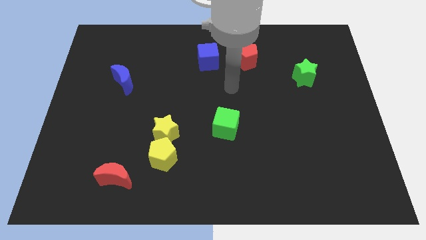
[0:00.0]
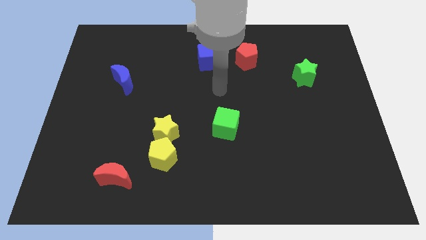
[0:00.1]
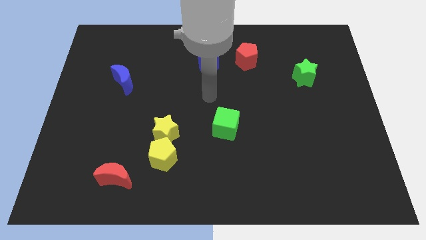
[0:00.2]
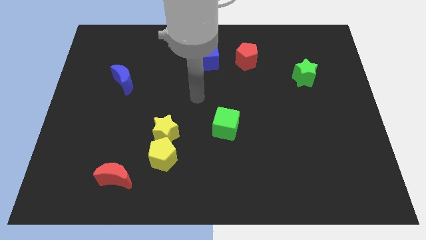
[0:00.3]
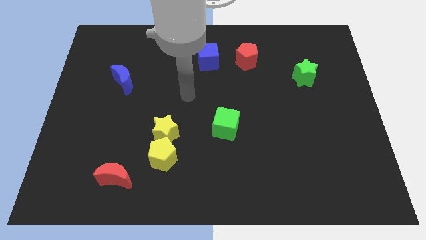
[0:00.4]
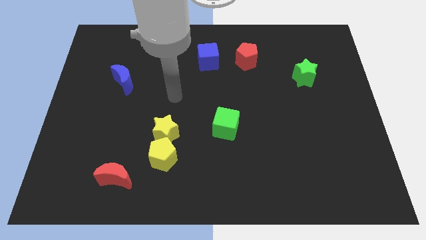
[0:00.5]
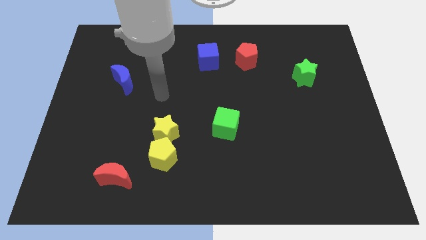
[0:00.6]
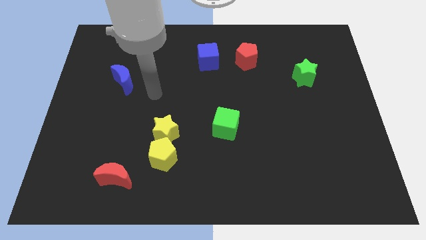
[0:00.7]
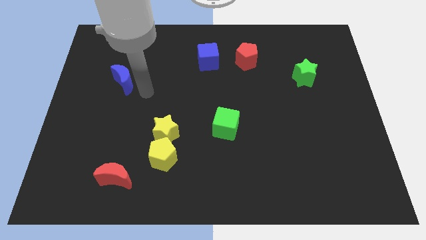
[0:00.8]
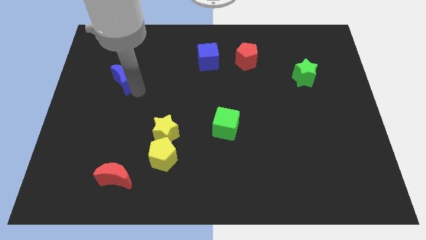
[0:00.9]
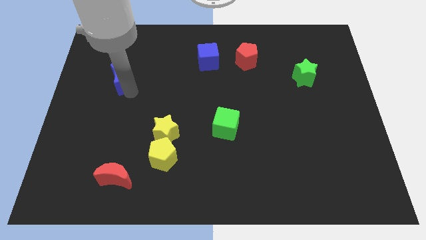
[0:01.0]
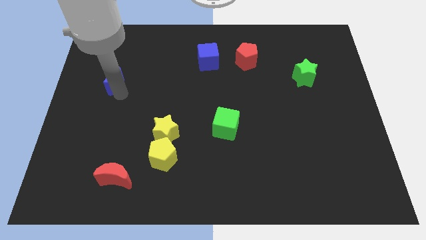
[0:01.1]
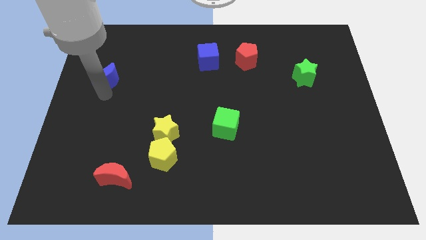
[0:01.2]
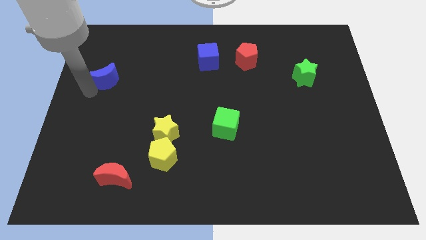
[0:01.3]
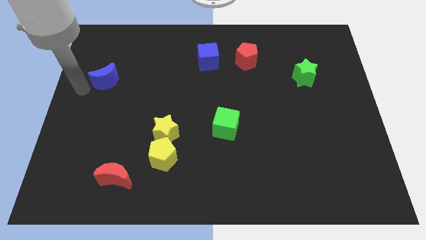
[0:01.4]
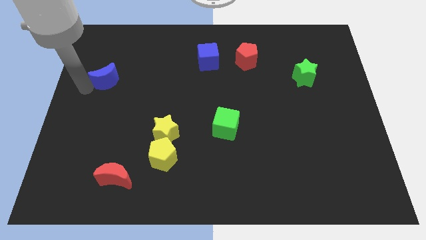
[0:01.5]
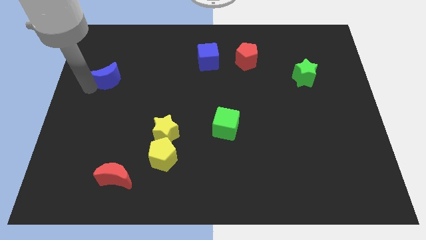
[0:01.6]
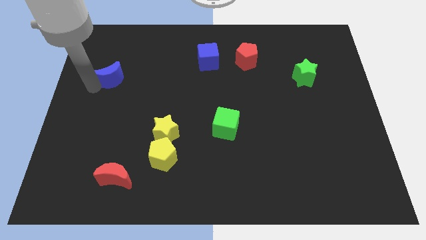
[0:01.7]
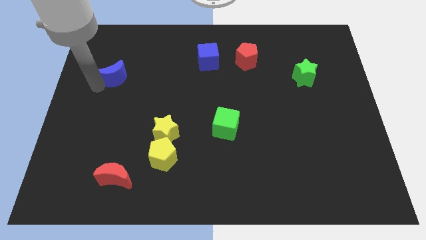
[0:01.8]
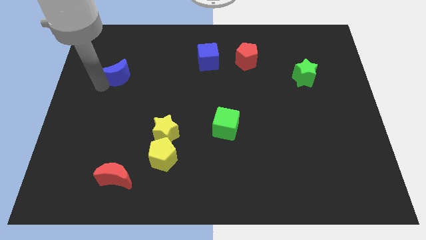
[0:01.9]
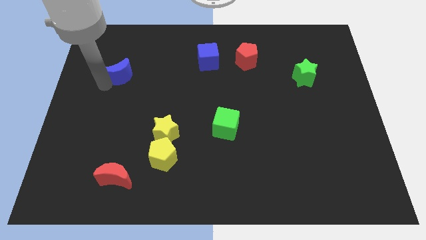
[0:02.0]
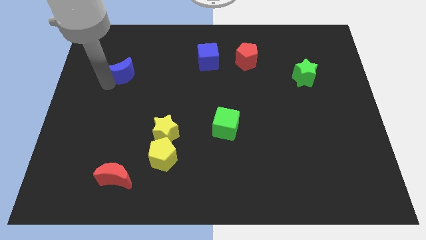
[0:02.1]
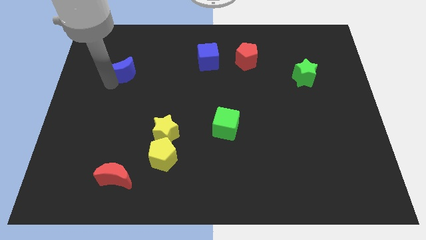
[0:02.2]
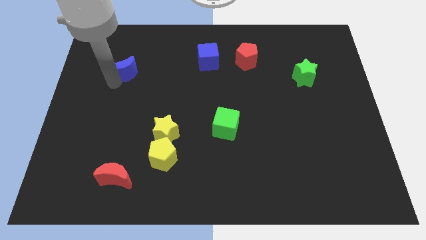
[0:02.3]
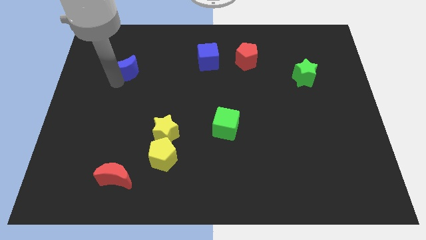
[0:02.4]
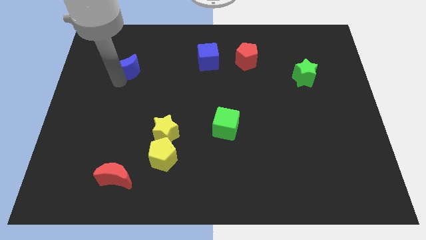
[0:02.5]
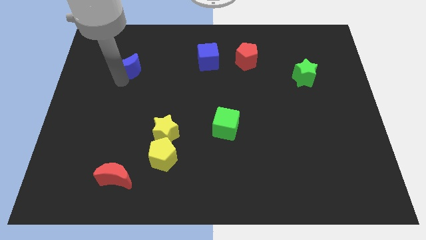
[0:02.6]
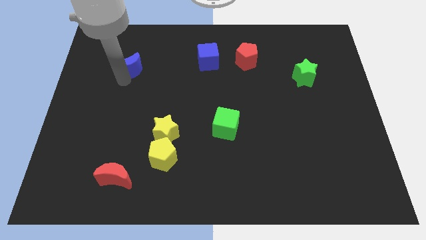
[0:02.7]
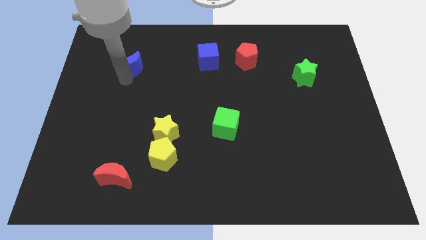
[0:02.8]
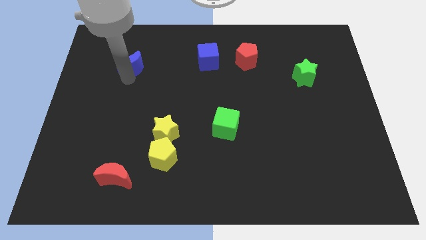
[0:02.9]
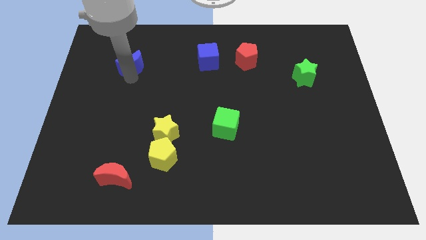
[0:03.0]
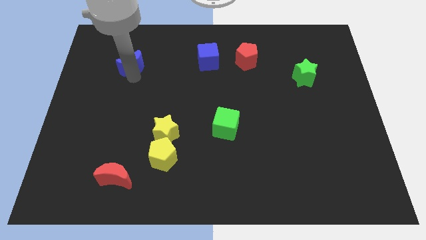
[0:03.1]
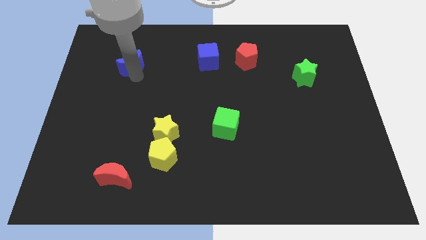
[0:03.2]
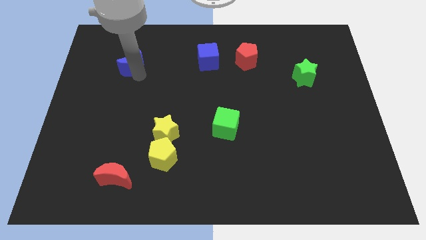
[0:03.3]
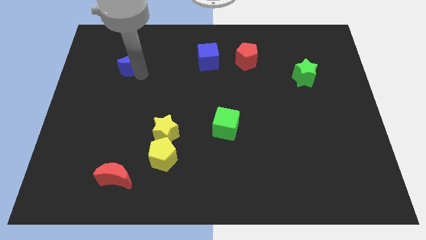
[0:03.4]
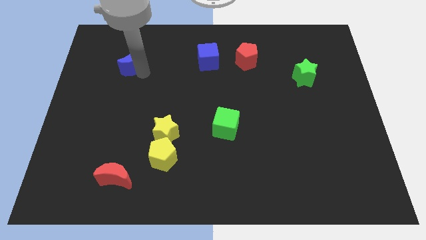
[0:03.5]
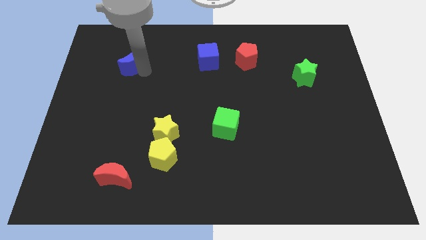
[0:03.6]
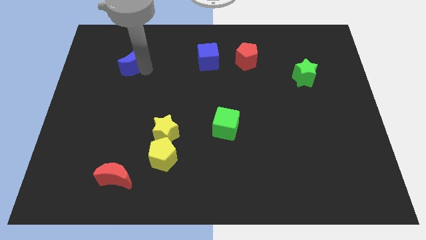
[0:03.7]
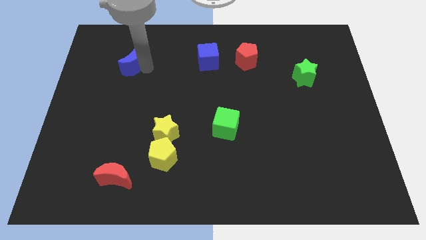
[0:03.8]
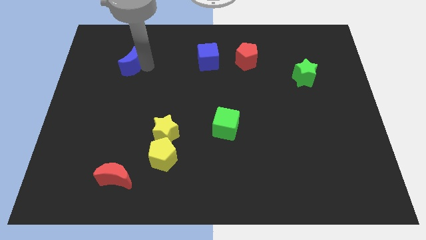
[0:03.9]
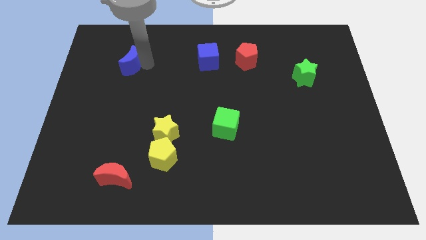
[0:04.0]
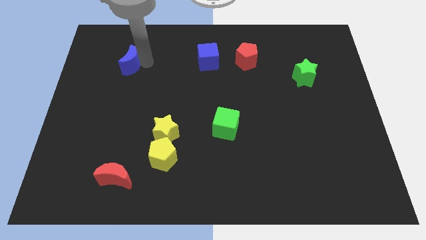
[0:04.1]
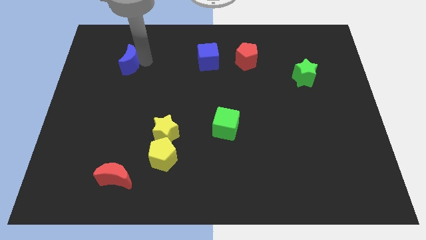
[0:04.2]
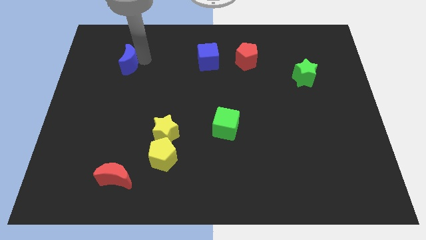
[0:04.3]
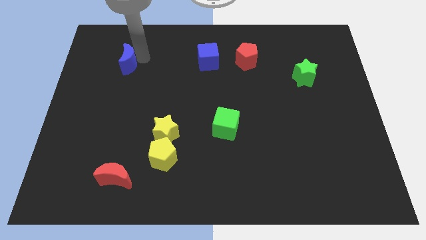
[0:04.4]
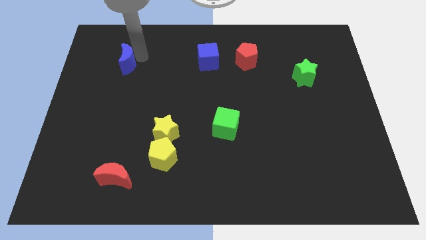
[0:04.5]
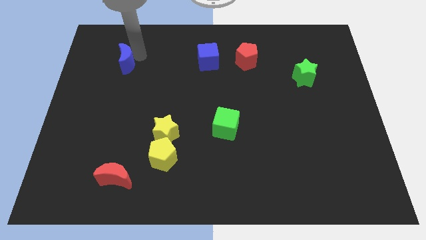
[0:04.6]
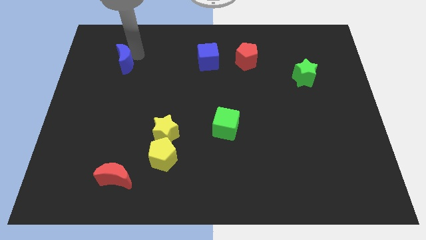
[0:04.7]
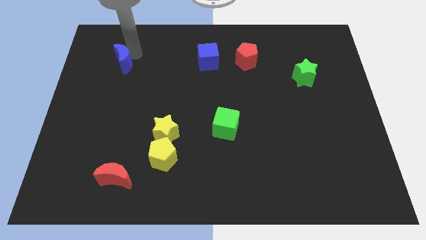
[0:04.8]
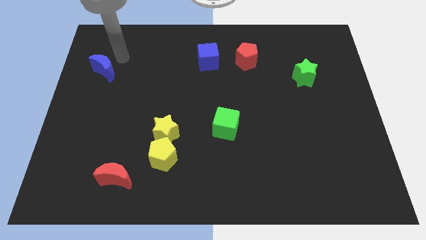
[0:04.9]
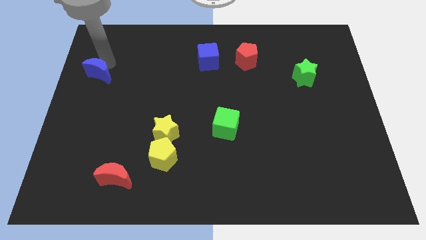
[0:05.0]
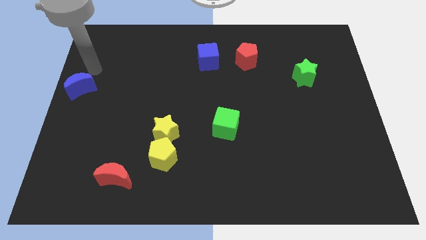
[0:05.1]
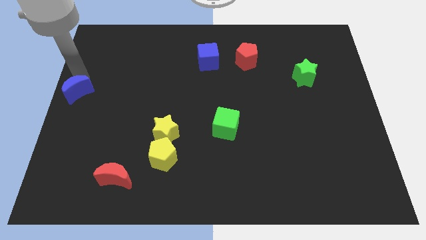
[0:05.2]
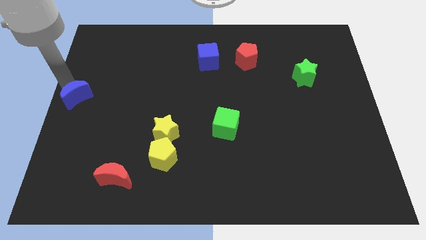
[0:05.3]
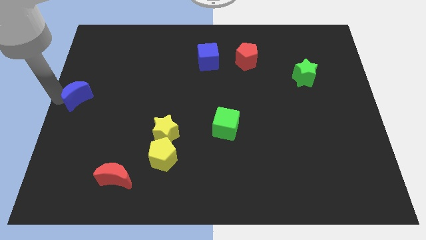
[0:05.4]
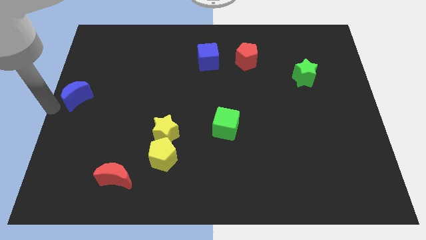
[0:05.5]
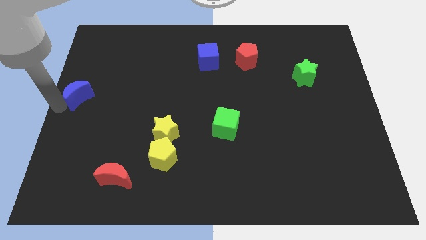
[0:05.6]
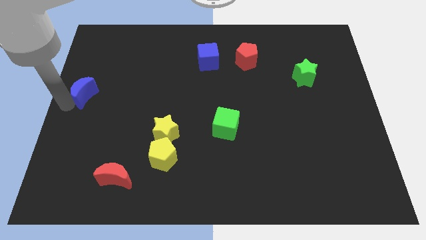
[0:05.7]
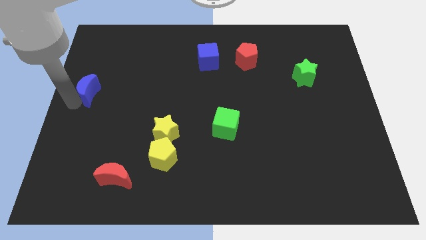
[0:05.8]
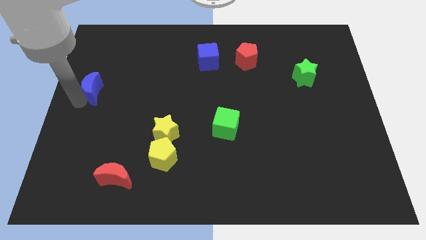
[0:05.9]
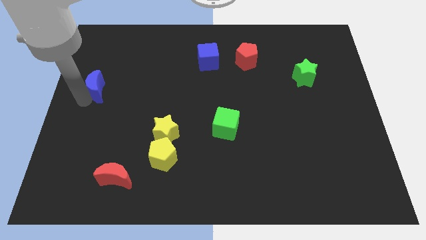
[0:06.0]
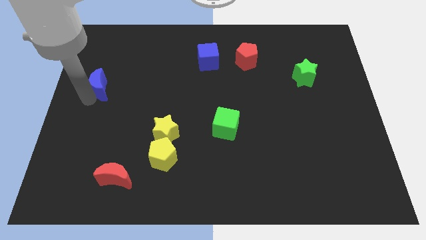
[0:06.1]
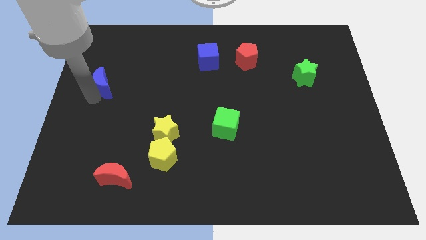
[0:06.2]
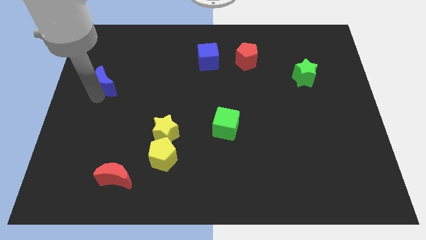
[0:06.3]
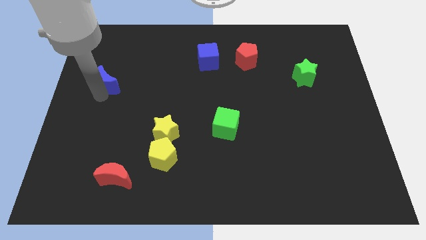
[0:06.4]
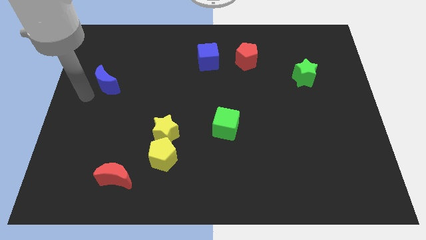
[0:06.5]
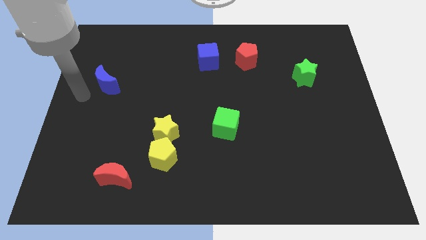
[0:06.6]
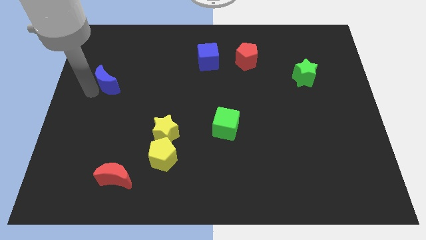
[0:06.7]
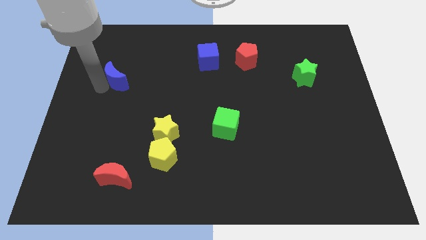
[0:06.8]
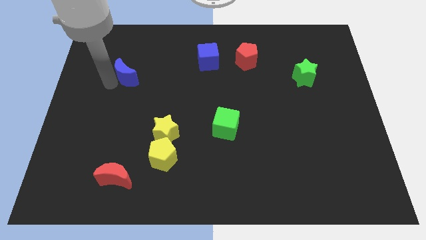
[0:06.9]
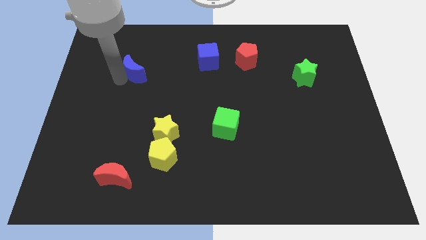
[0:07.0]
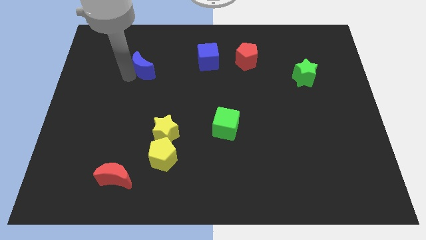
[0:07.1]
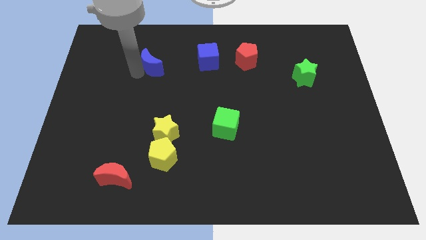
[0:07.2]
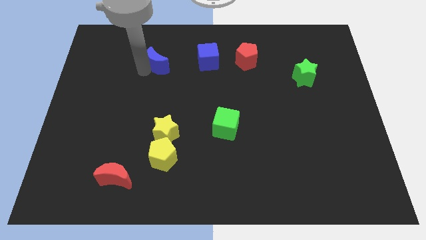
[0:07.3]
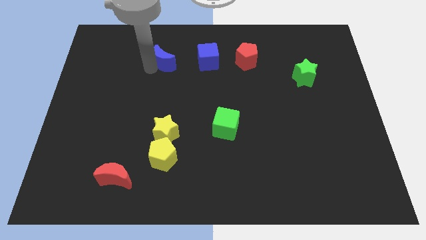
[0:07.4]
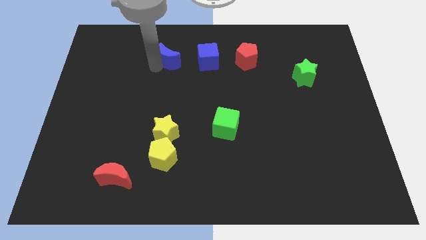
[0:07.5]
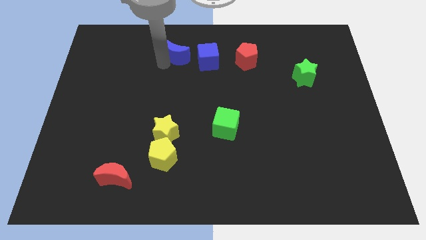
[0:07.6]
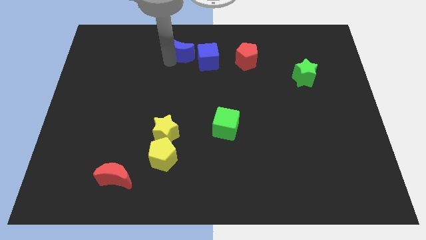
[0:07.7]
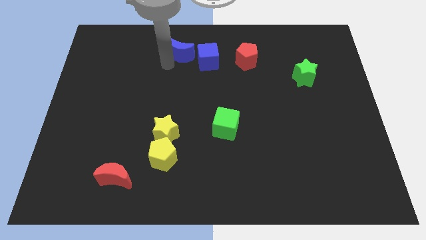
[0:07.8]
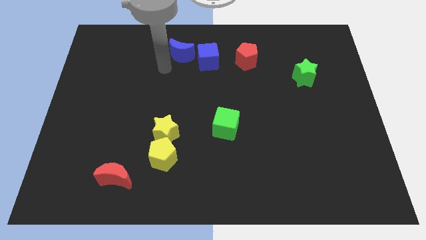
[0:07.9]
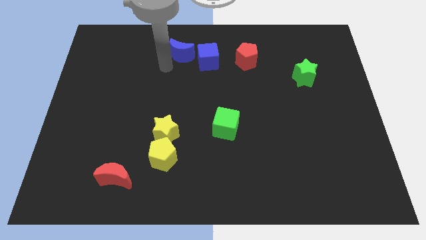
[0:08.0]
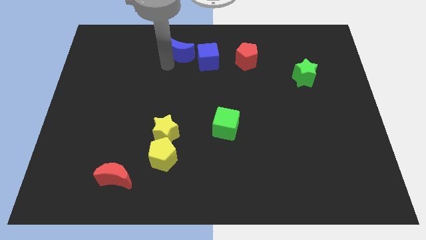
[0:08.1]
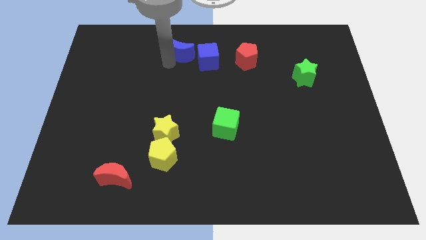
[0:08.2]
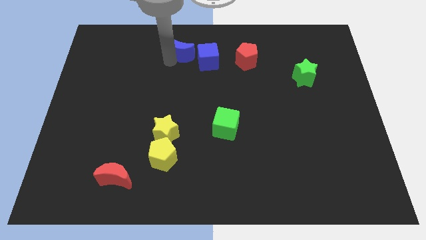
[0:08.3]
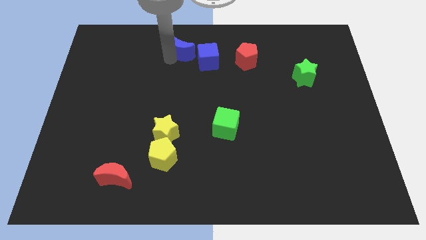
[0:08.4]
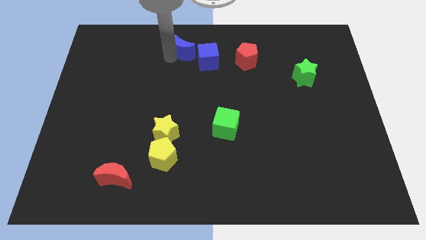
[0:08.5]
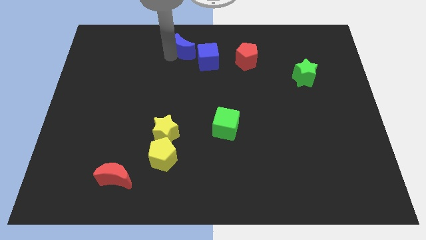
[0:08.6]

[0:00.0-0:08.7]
move the blue moon to the top
